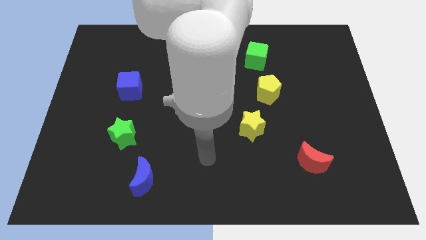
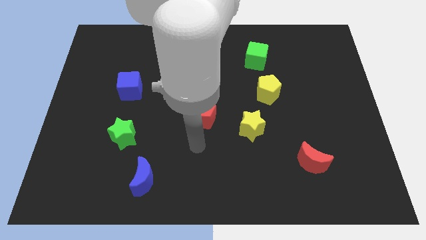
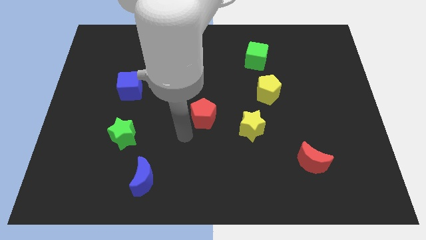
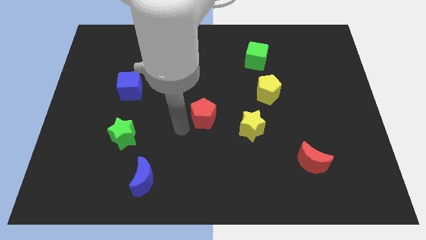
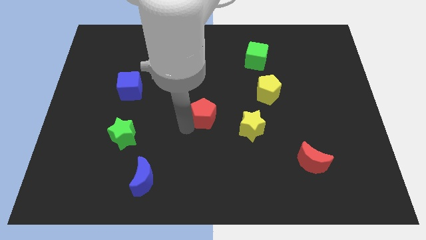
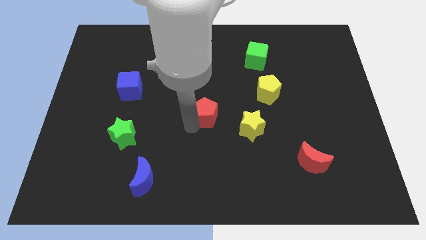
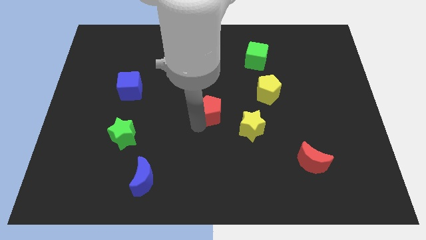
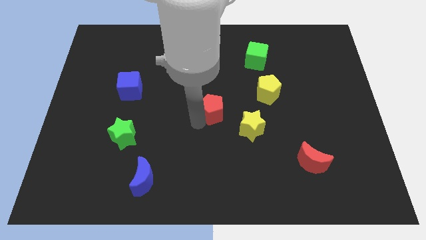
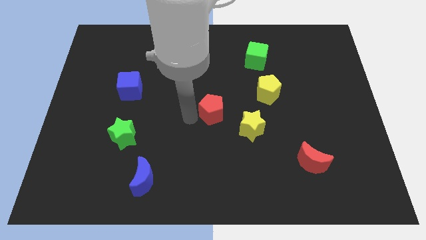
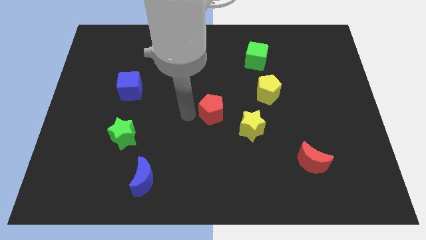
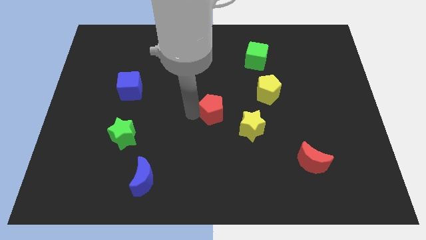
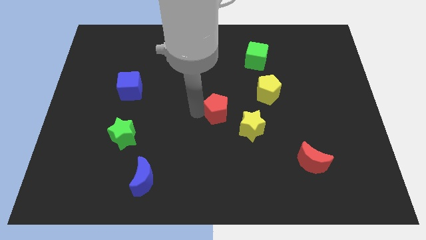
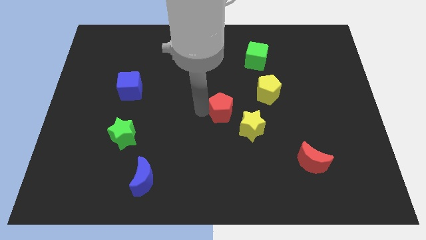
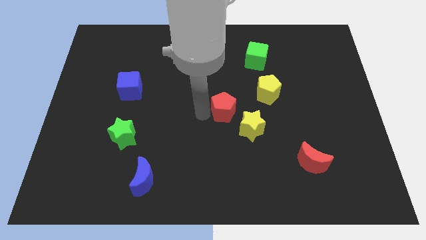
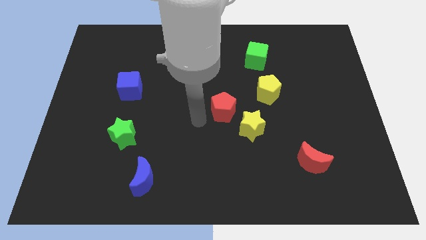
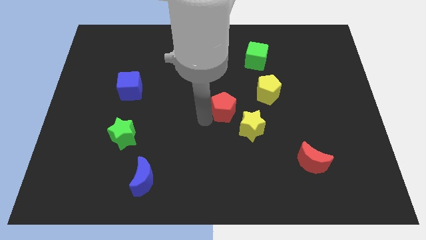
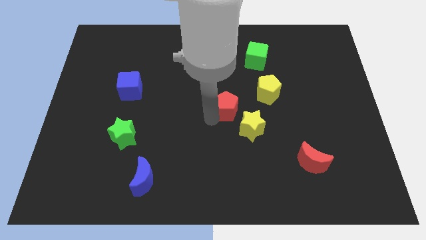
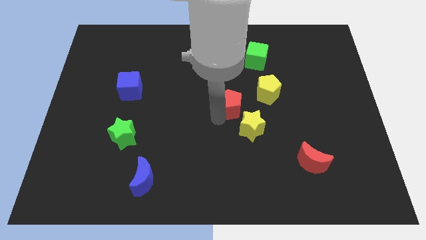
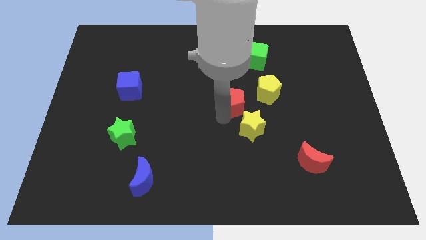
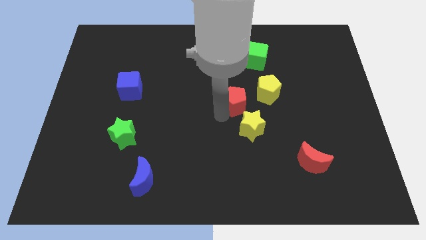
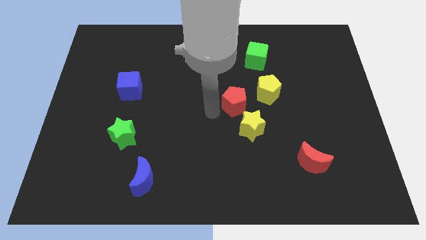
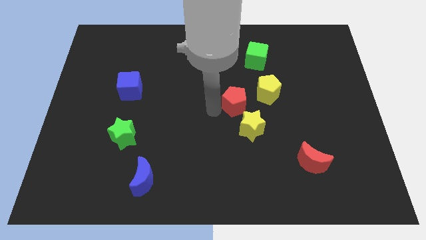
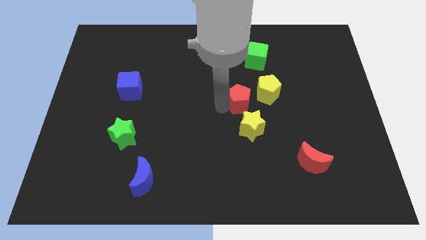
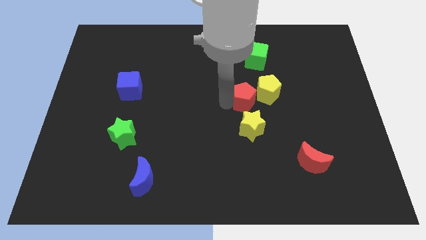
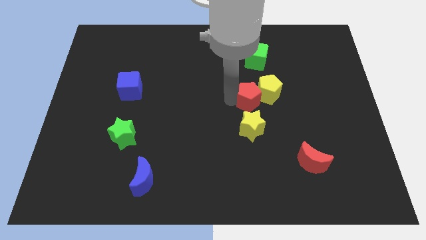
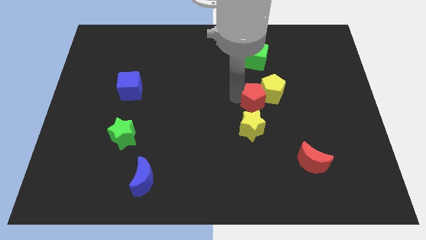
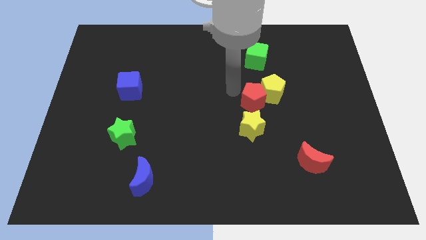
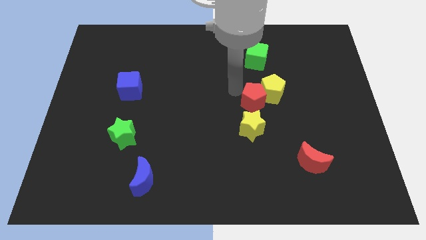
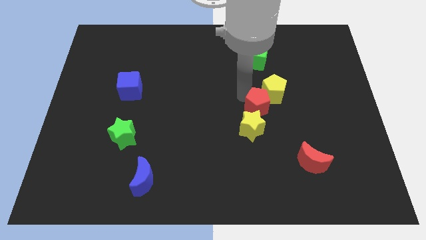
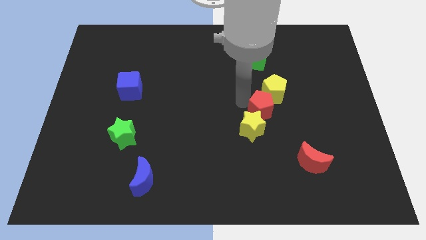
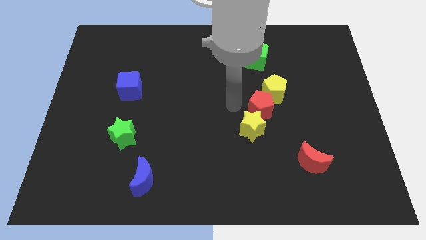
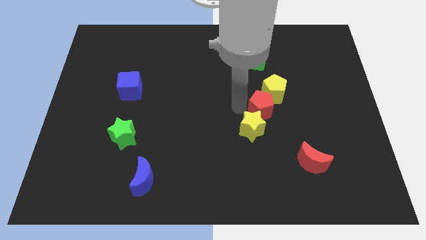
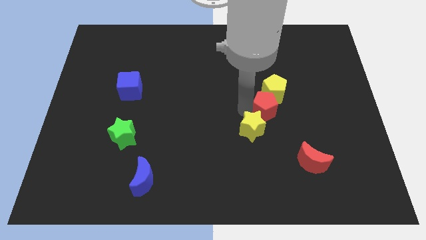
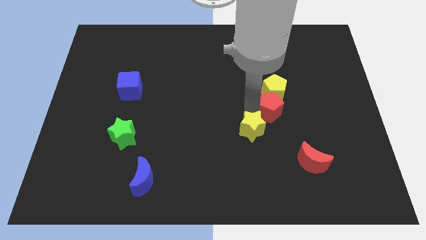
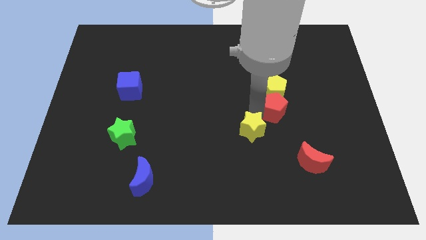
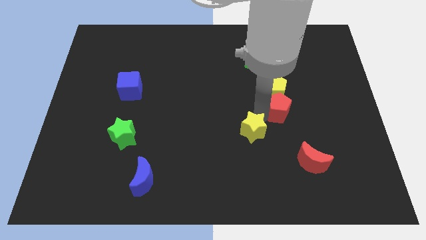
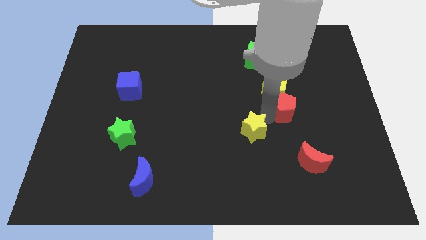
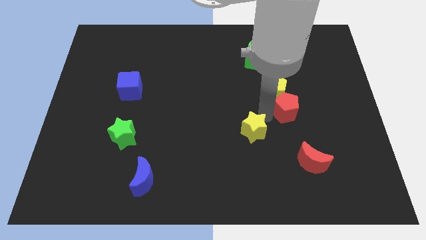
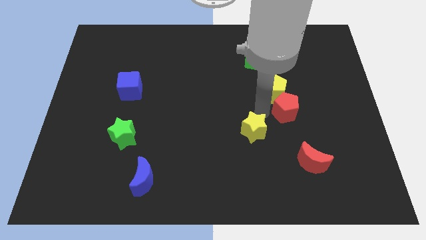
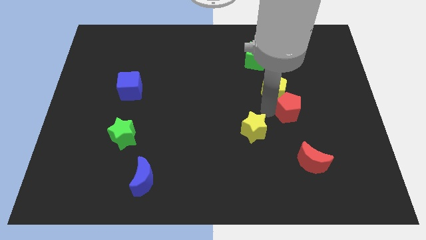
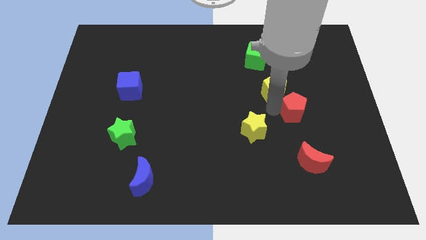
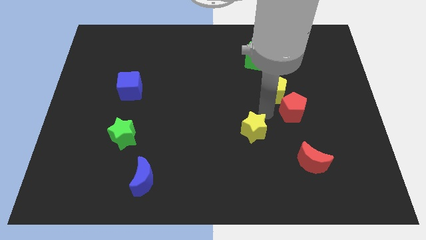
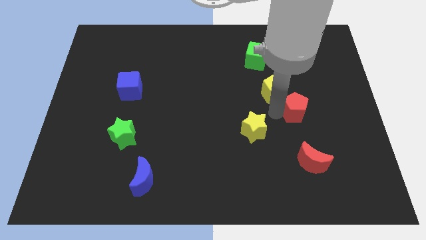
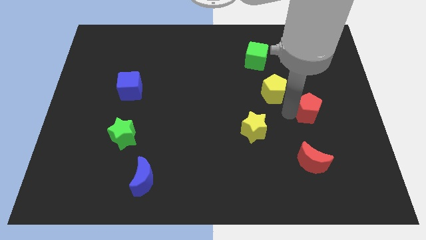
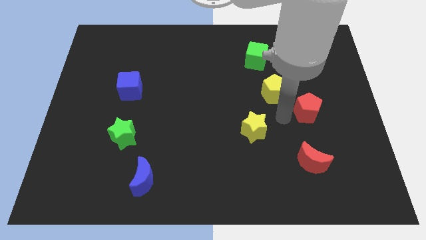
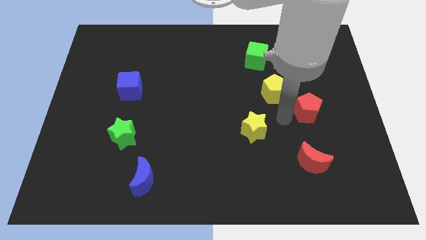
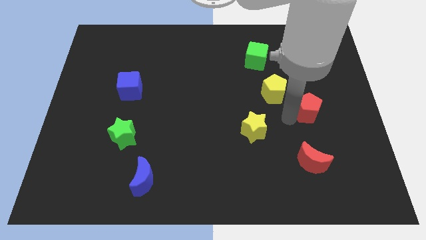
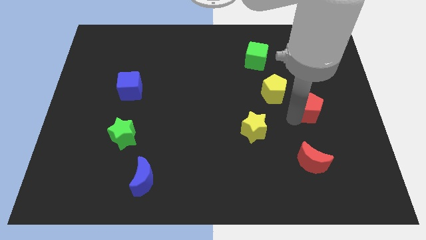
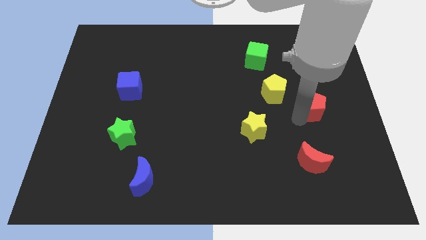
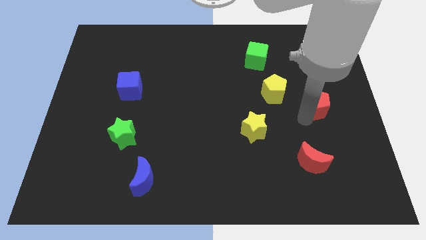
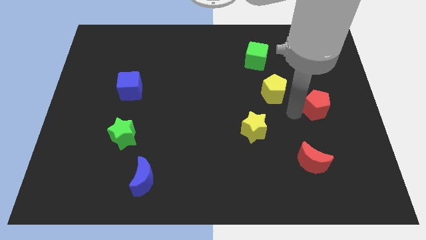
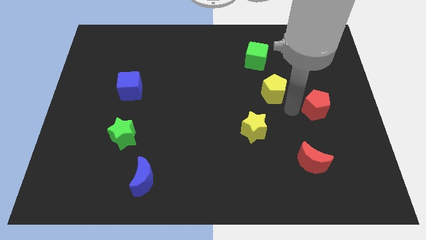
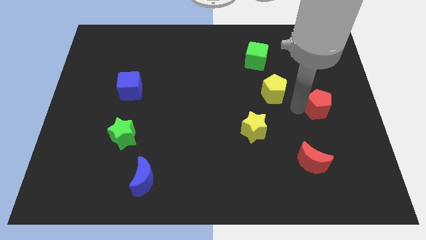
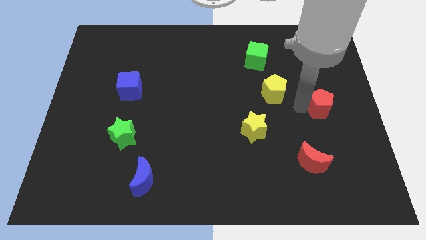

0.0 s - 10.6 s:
push the red pentagon to the right side of the board
